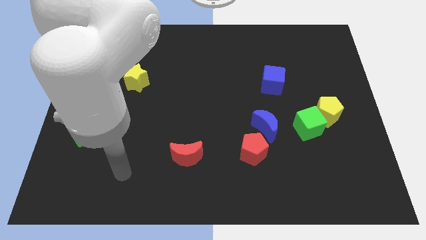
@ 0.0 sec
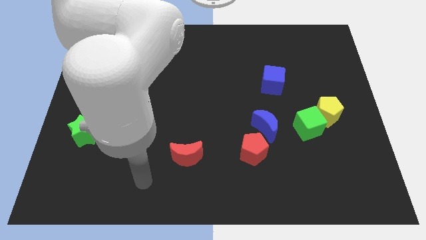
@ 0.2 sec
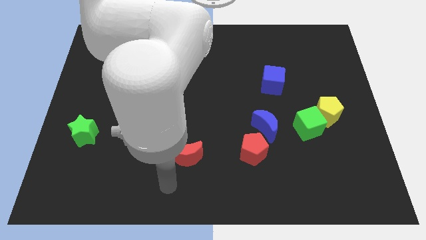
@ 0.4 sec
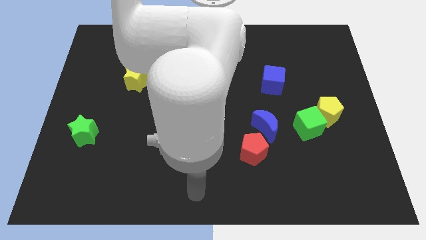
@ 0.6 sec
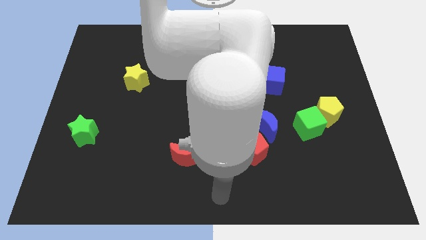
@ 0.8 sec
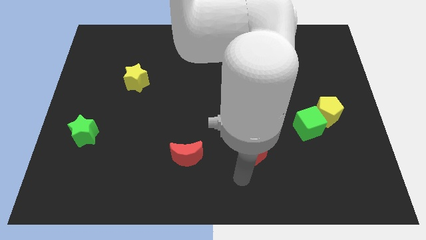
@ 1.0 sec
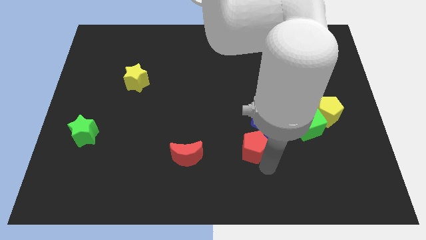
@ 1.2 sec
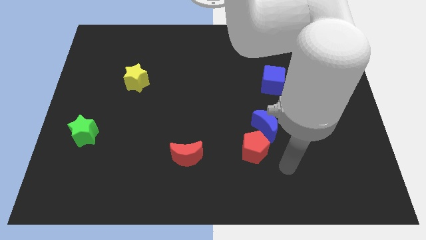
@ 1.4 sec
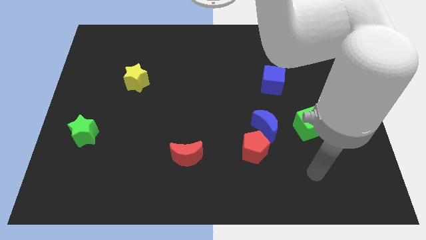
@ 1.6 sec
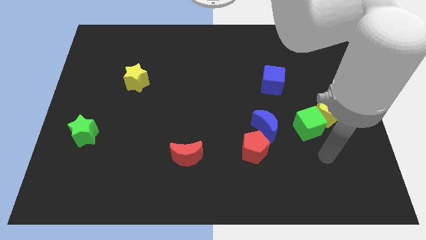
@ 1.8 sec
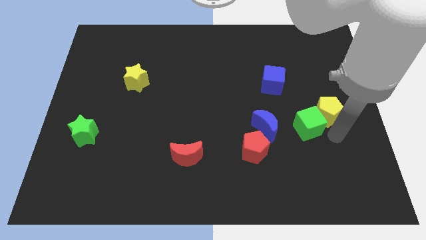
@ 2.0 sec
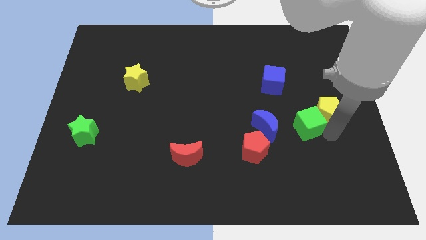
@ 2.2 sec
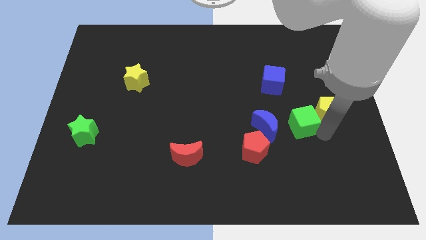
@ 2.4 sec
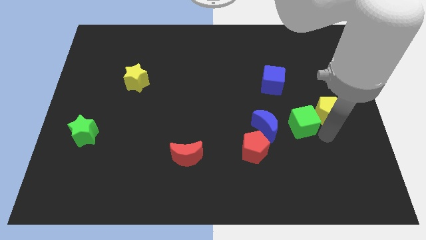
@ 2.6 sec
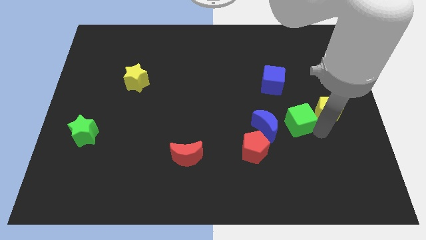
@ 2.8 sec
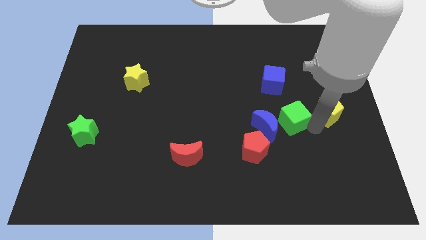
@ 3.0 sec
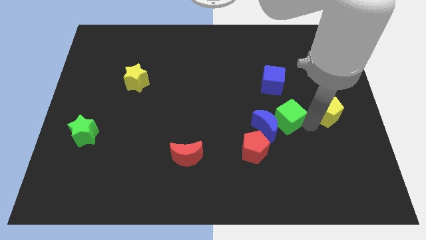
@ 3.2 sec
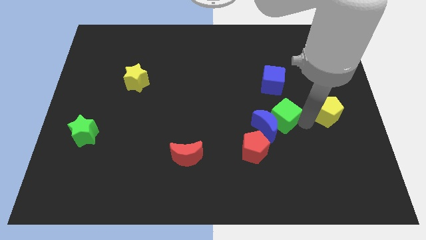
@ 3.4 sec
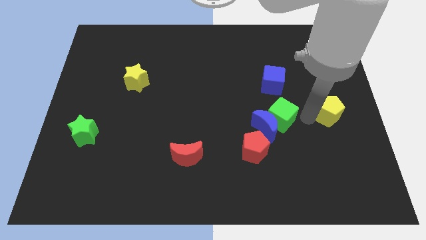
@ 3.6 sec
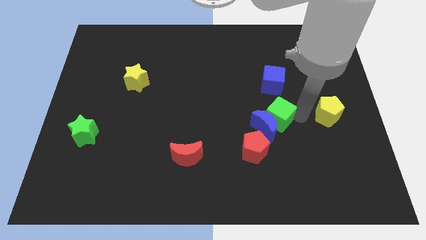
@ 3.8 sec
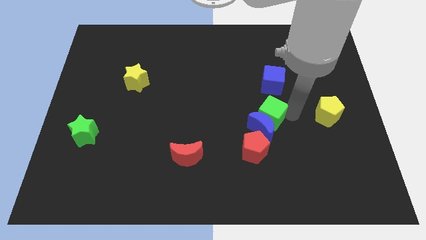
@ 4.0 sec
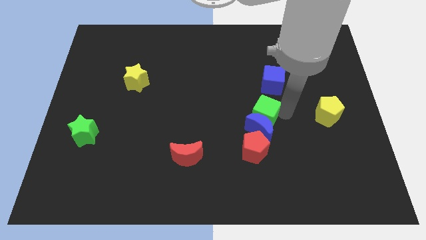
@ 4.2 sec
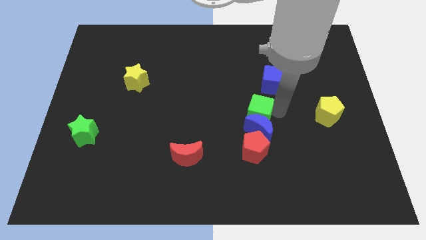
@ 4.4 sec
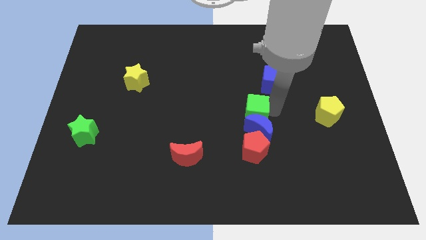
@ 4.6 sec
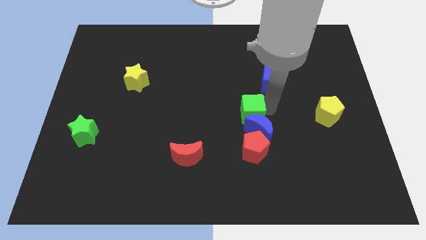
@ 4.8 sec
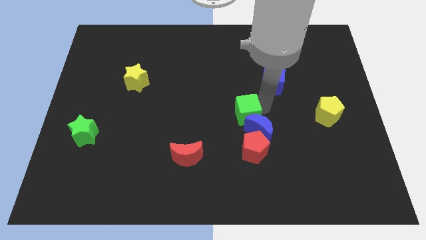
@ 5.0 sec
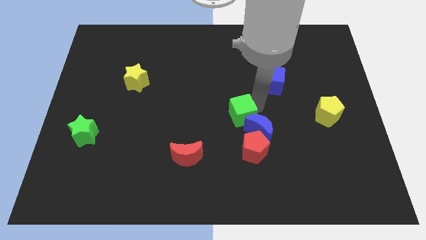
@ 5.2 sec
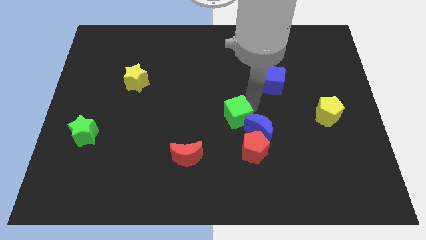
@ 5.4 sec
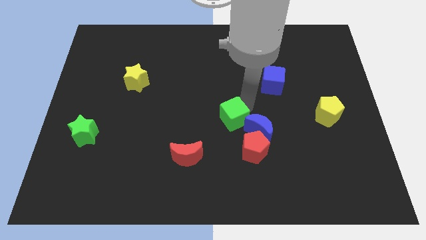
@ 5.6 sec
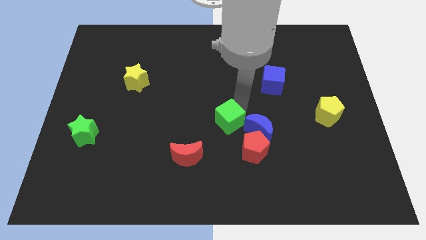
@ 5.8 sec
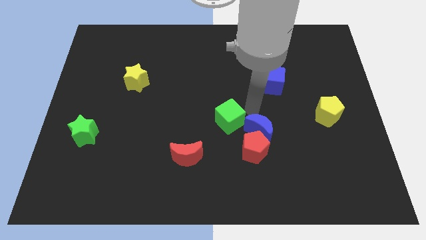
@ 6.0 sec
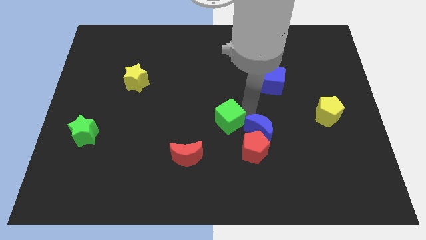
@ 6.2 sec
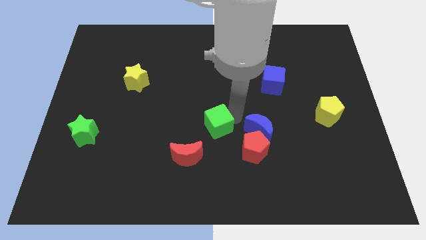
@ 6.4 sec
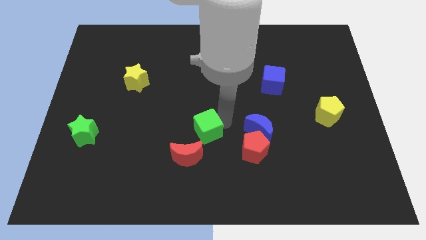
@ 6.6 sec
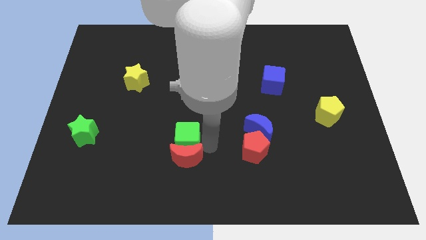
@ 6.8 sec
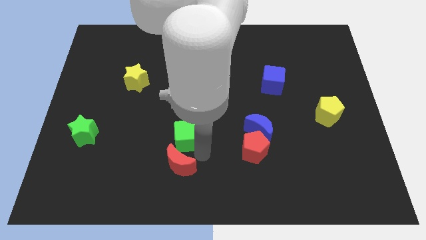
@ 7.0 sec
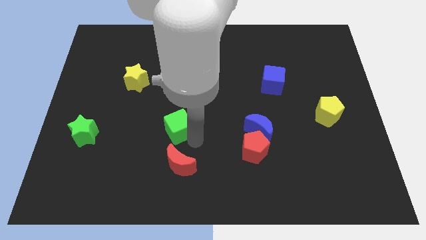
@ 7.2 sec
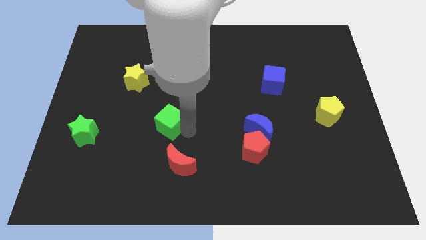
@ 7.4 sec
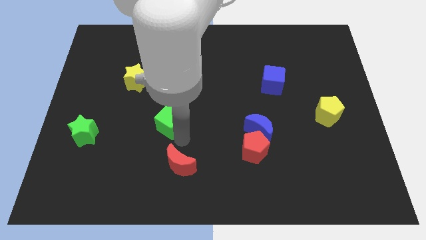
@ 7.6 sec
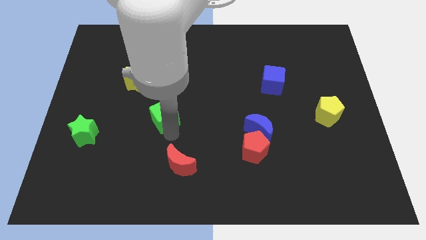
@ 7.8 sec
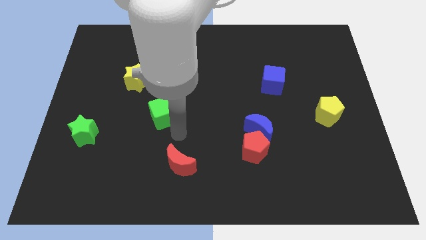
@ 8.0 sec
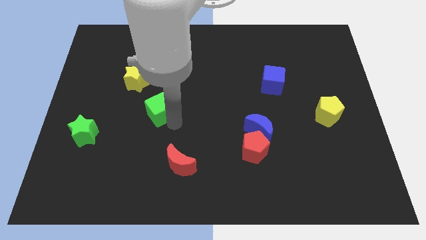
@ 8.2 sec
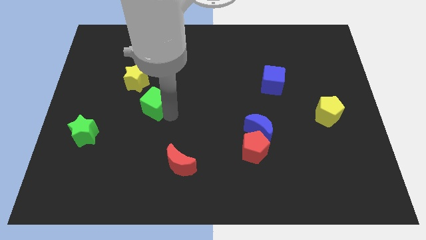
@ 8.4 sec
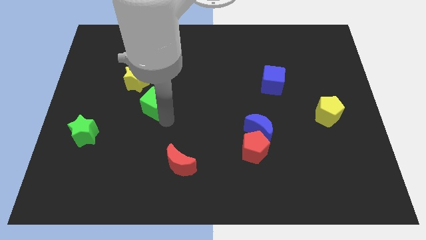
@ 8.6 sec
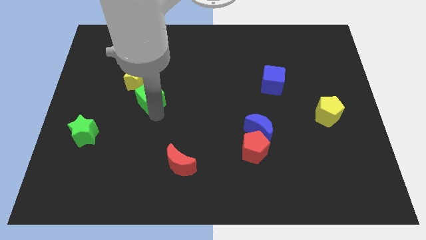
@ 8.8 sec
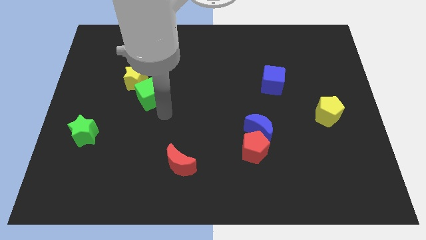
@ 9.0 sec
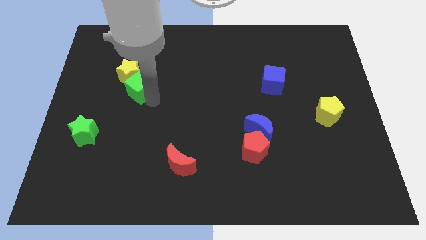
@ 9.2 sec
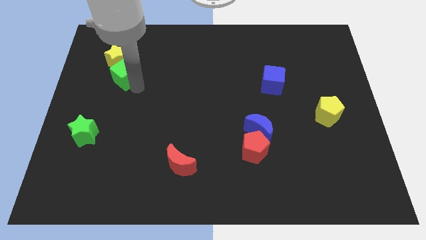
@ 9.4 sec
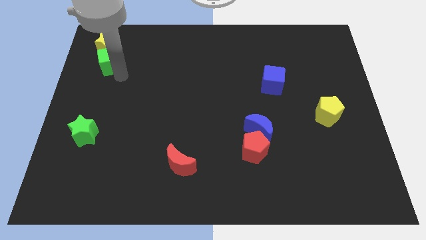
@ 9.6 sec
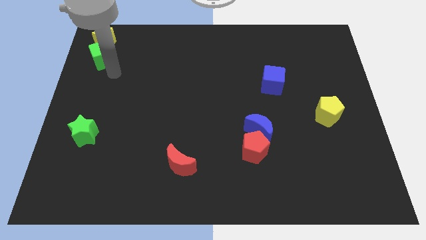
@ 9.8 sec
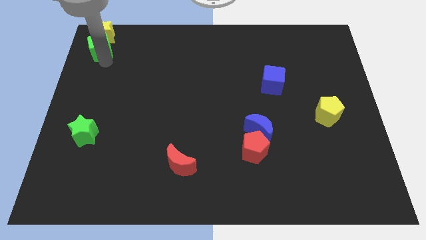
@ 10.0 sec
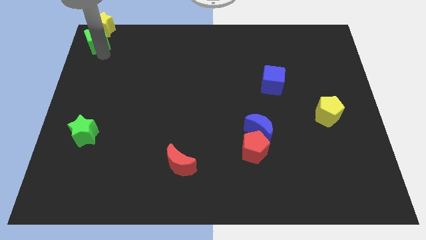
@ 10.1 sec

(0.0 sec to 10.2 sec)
slide the green cube to the top left of the board
